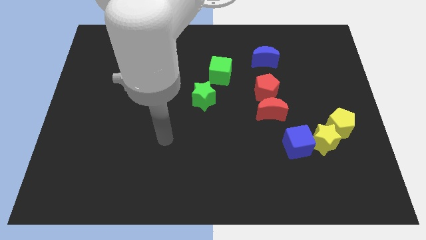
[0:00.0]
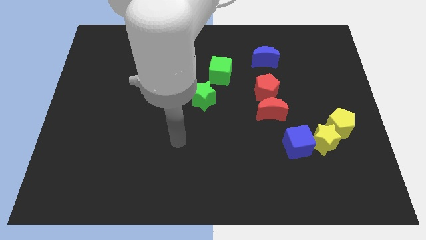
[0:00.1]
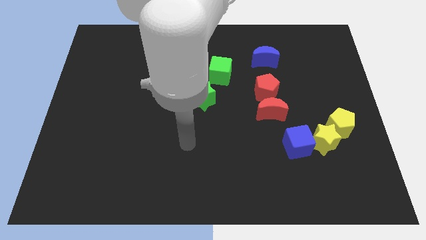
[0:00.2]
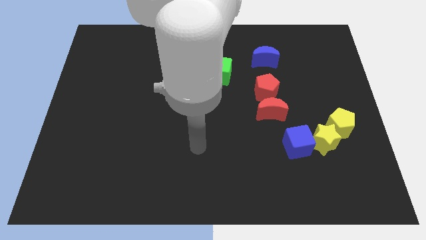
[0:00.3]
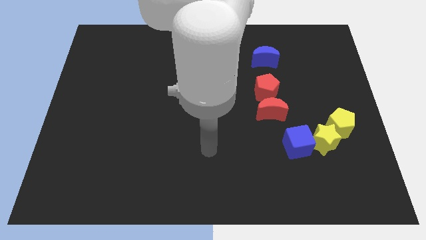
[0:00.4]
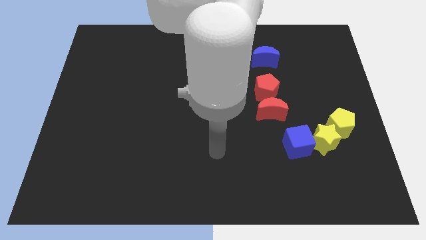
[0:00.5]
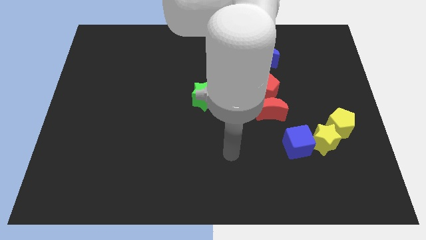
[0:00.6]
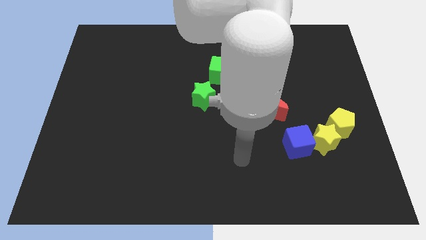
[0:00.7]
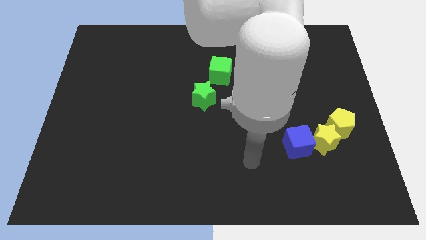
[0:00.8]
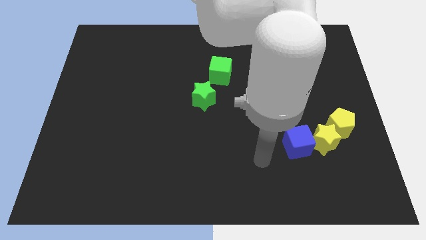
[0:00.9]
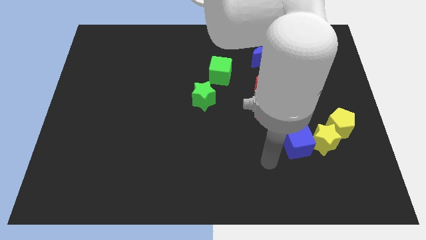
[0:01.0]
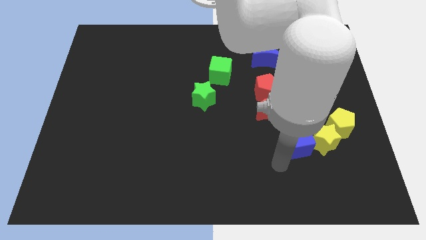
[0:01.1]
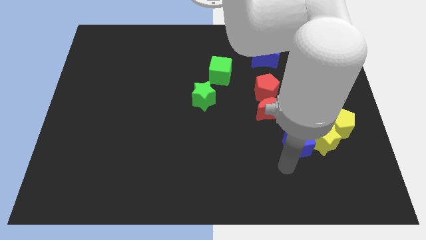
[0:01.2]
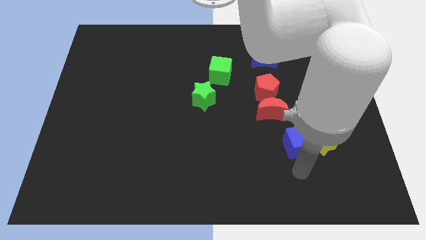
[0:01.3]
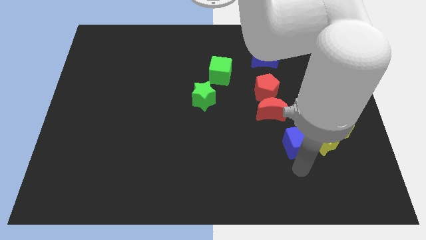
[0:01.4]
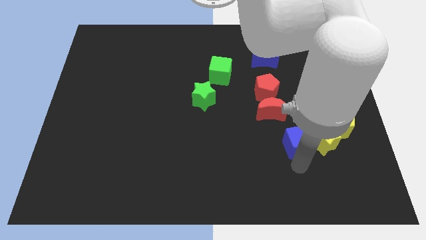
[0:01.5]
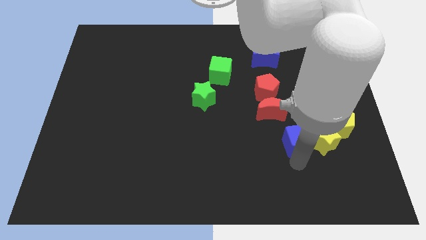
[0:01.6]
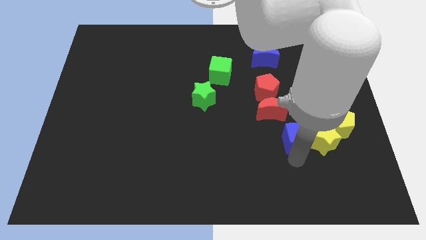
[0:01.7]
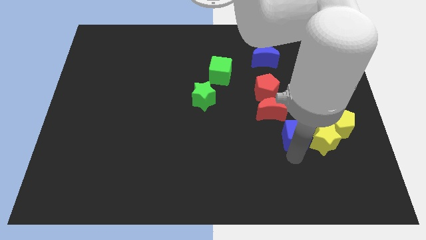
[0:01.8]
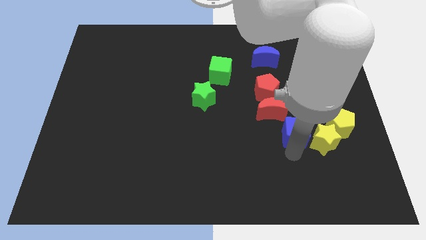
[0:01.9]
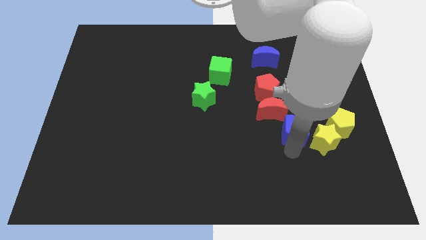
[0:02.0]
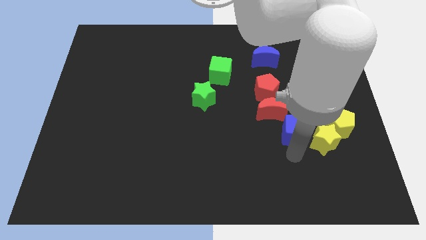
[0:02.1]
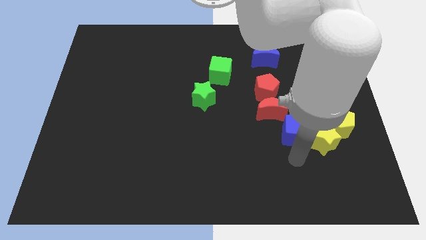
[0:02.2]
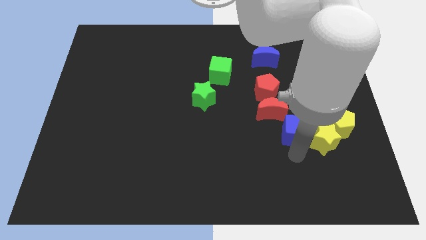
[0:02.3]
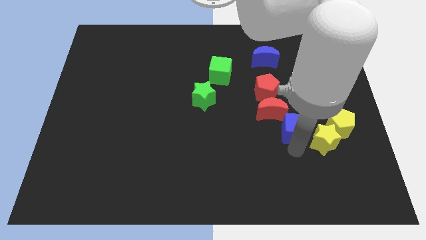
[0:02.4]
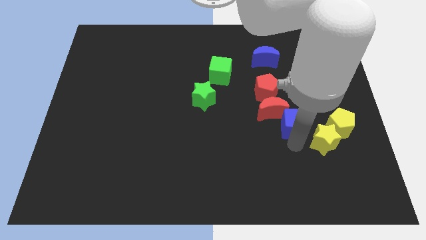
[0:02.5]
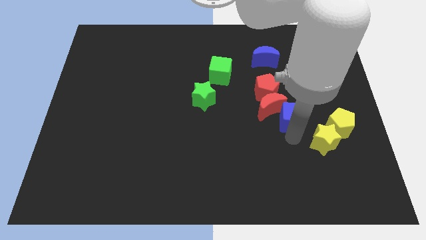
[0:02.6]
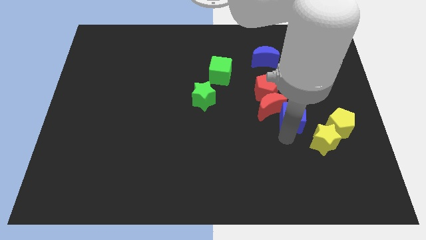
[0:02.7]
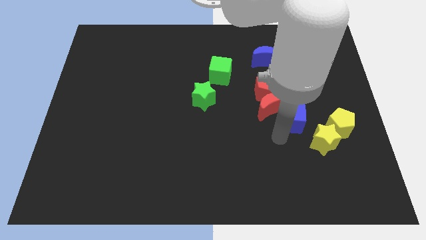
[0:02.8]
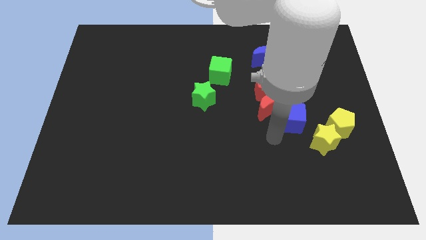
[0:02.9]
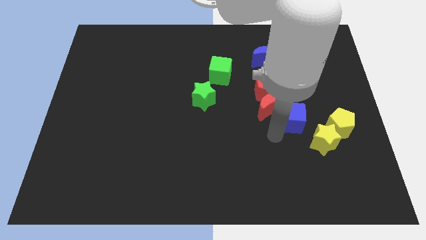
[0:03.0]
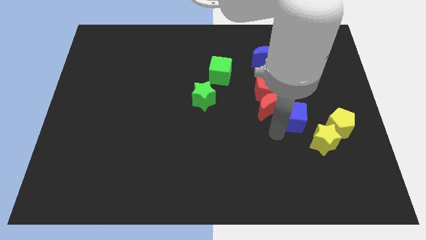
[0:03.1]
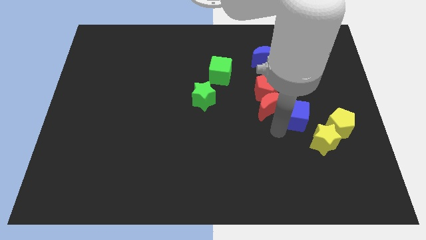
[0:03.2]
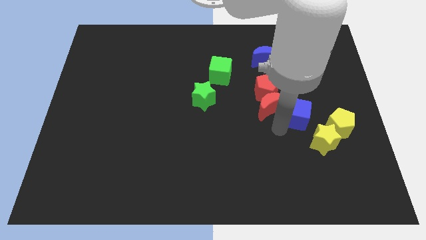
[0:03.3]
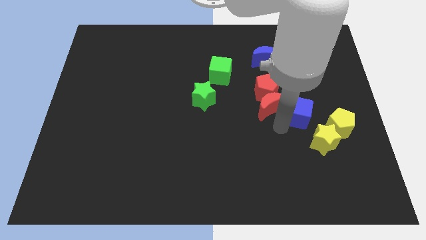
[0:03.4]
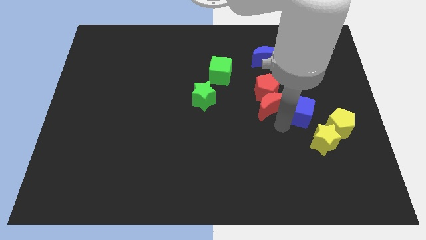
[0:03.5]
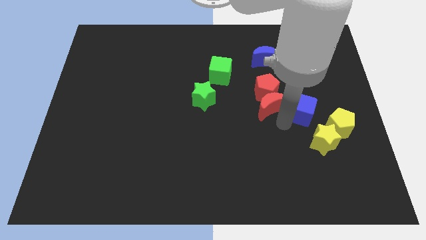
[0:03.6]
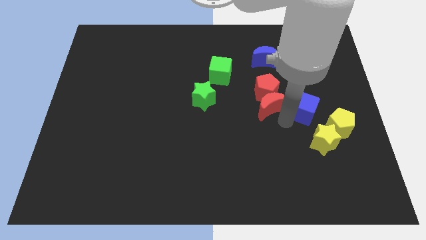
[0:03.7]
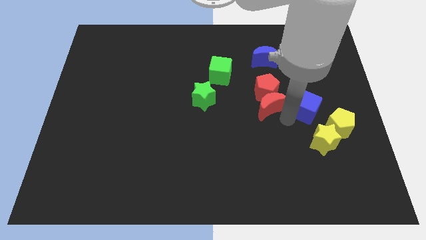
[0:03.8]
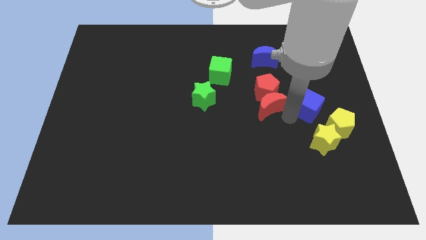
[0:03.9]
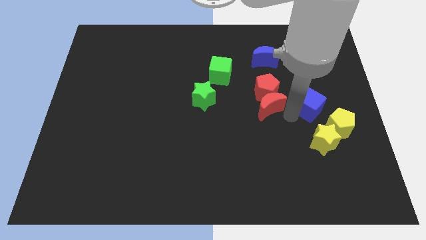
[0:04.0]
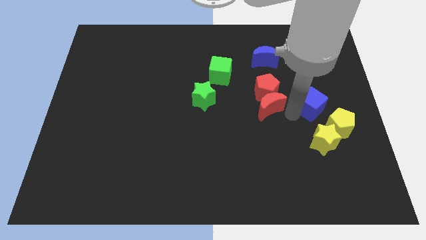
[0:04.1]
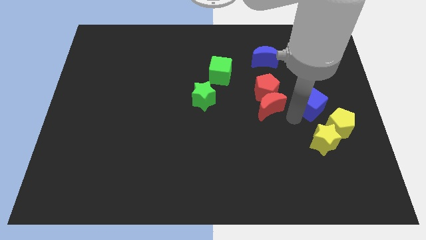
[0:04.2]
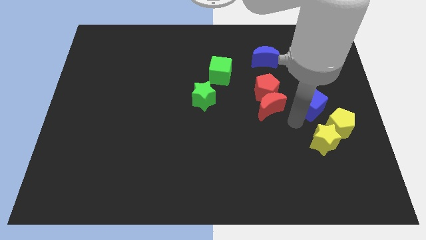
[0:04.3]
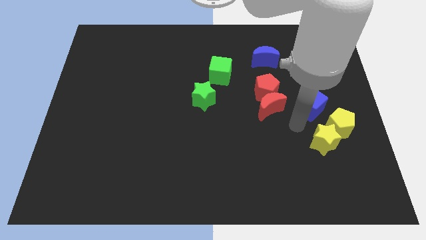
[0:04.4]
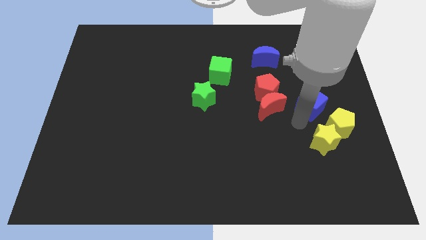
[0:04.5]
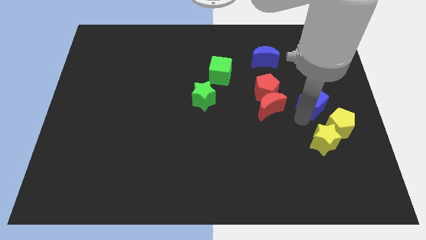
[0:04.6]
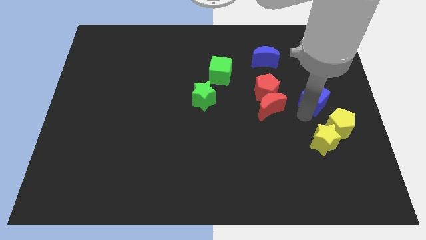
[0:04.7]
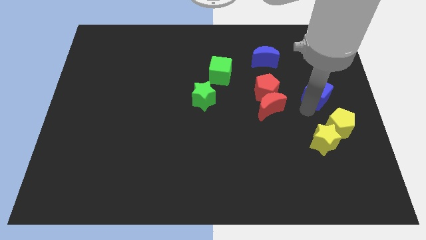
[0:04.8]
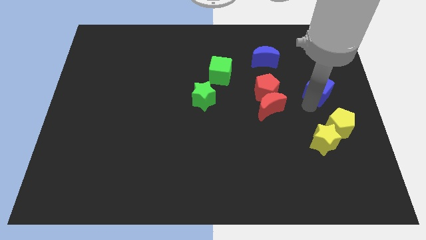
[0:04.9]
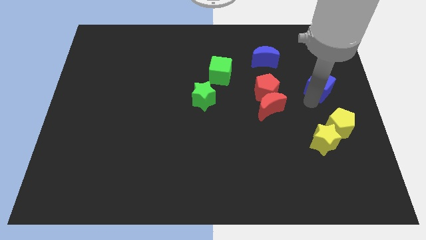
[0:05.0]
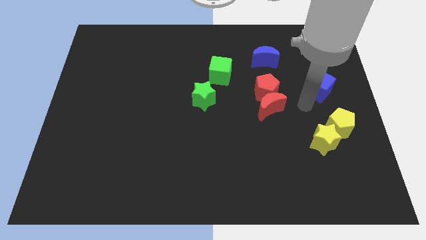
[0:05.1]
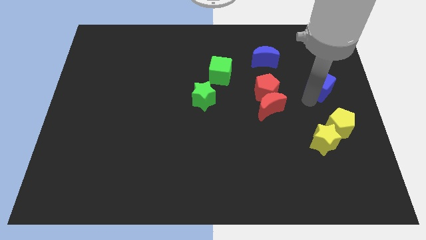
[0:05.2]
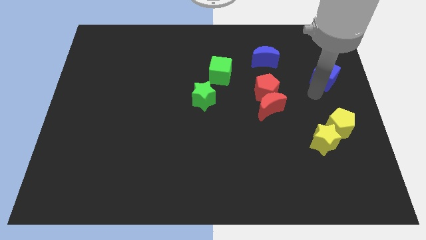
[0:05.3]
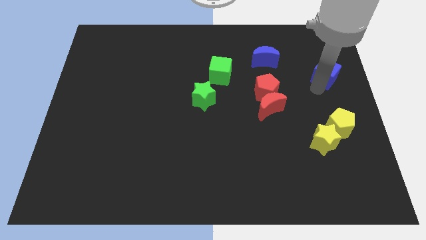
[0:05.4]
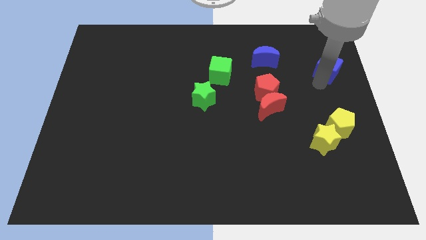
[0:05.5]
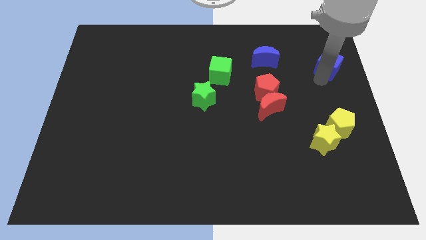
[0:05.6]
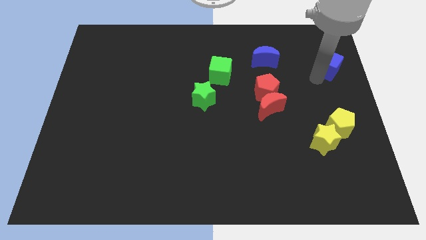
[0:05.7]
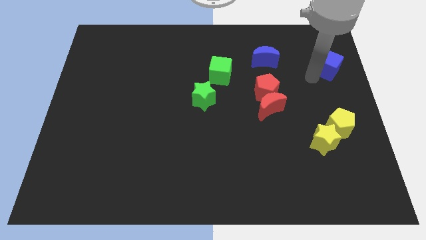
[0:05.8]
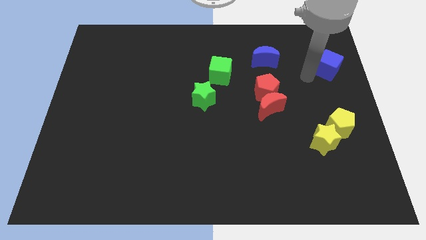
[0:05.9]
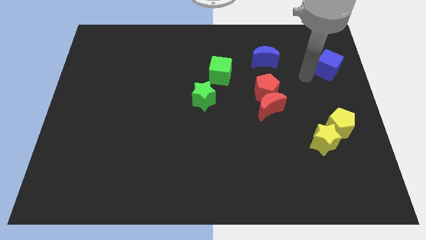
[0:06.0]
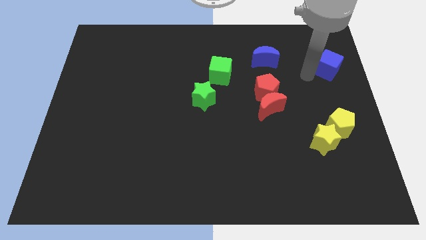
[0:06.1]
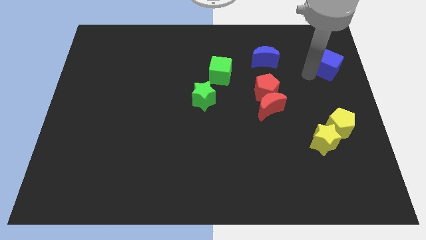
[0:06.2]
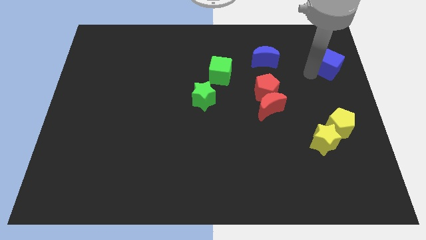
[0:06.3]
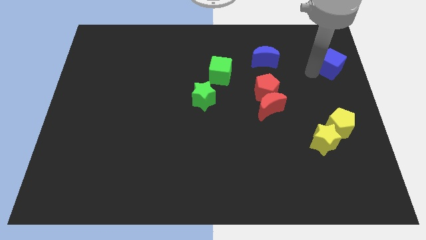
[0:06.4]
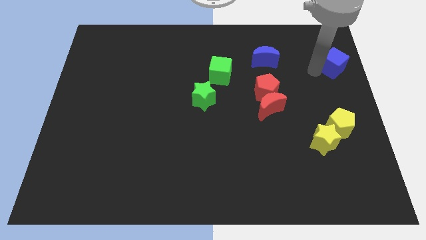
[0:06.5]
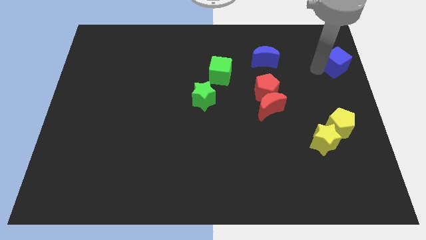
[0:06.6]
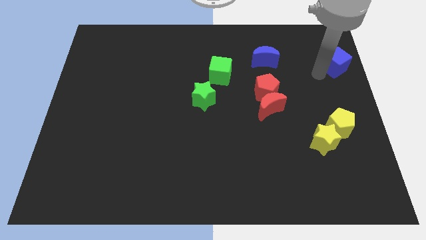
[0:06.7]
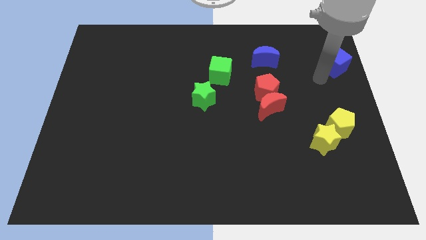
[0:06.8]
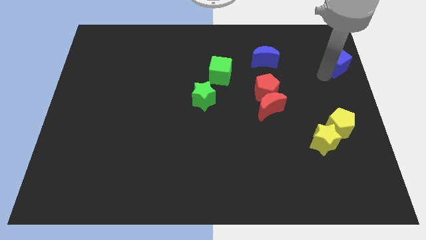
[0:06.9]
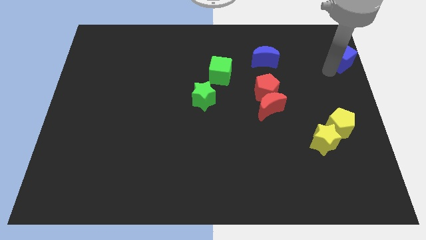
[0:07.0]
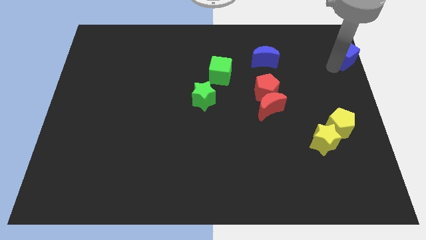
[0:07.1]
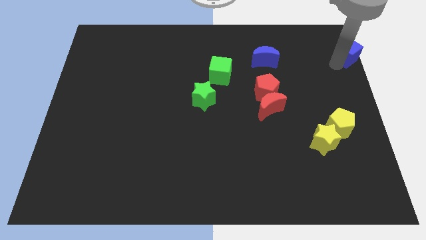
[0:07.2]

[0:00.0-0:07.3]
put the blue cube to the top right
